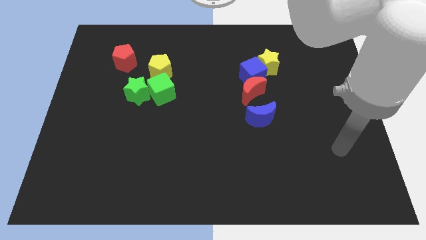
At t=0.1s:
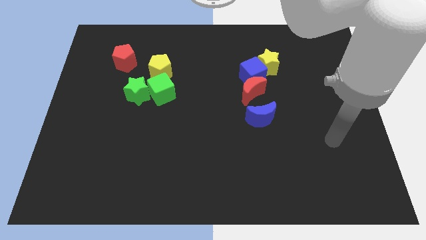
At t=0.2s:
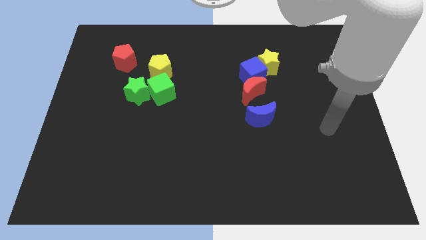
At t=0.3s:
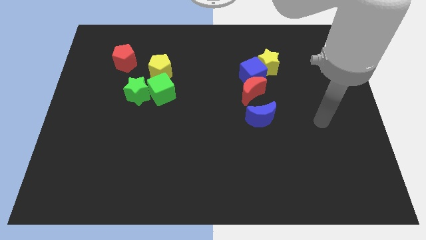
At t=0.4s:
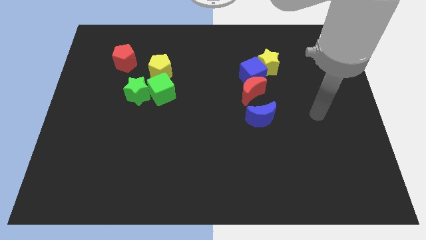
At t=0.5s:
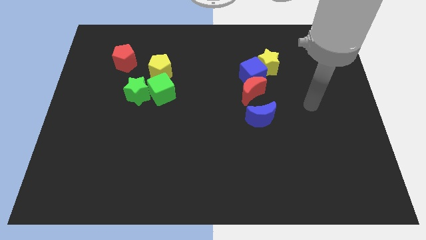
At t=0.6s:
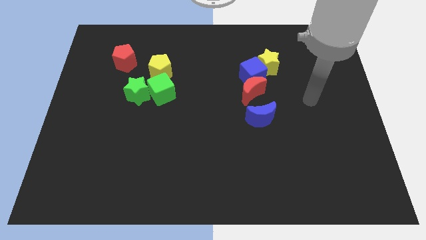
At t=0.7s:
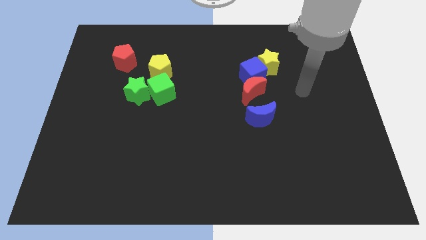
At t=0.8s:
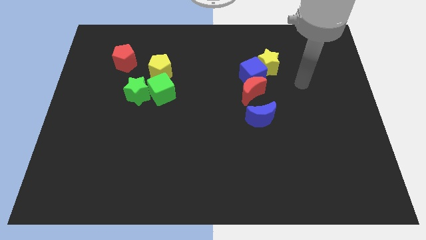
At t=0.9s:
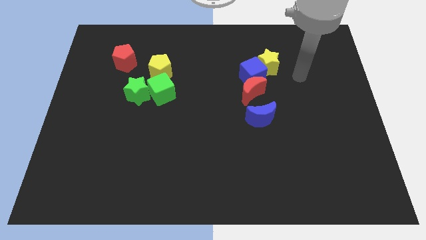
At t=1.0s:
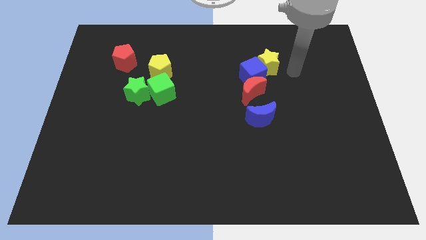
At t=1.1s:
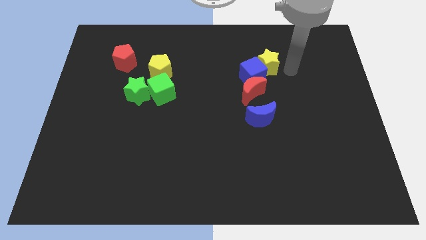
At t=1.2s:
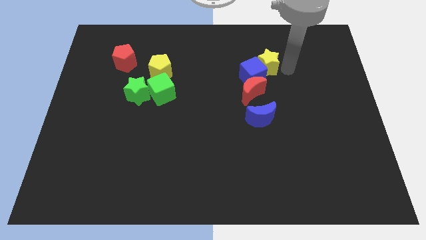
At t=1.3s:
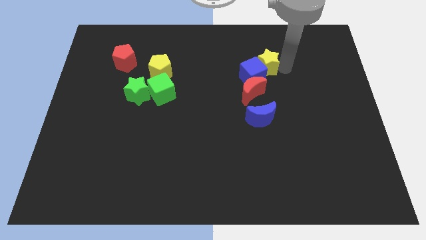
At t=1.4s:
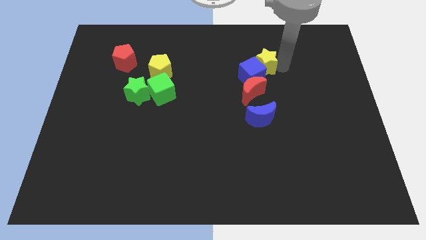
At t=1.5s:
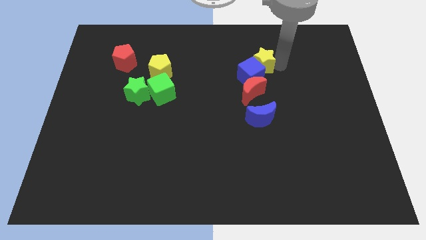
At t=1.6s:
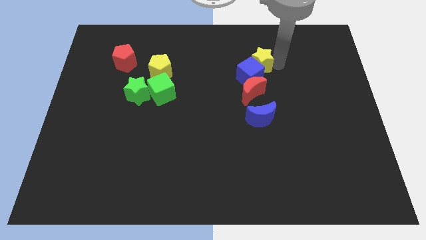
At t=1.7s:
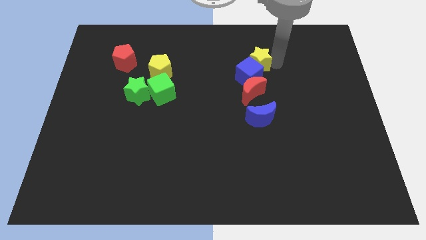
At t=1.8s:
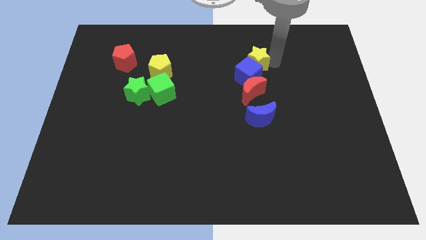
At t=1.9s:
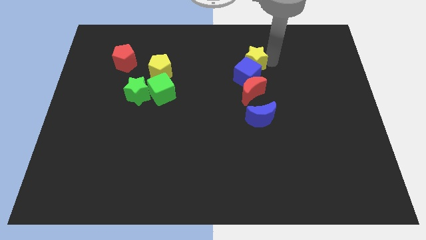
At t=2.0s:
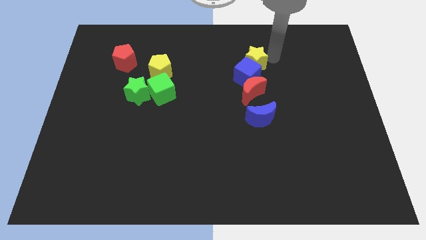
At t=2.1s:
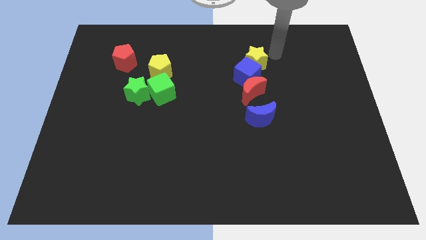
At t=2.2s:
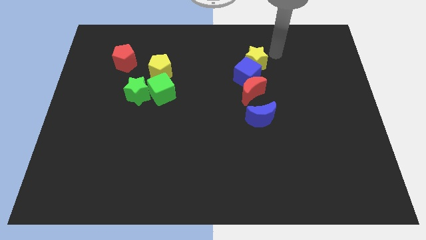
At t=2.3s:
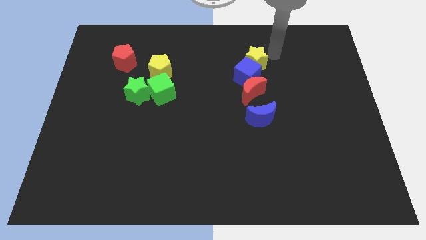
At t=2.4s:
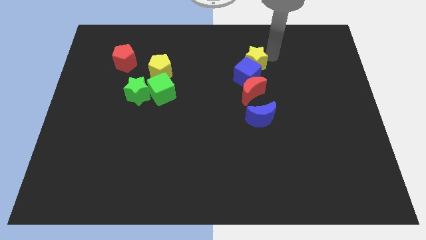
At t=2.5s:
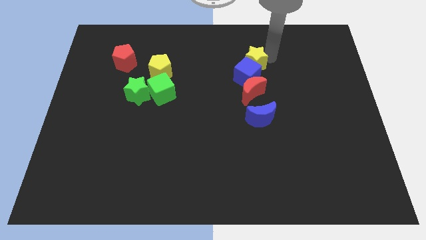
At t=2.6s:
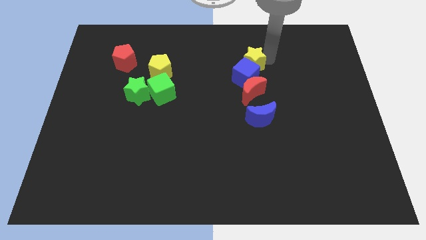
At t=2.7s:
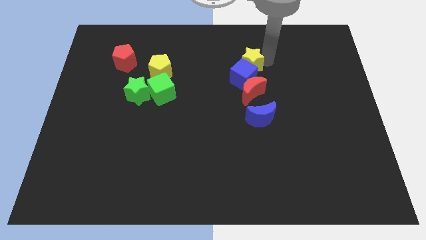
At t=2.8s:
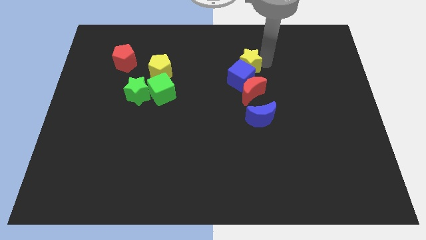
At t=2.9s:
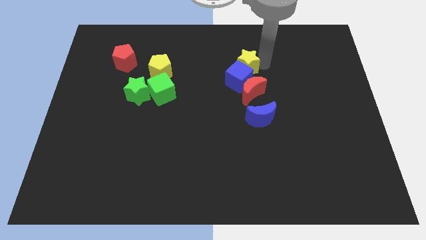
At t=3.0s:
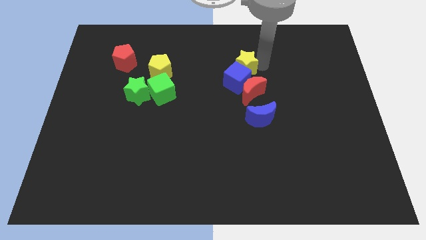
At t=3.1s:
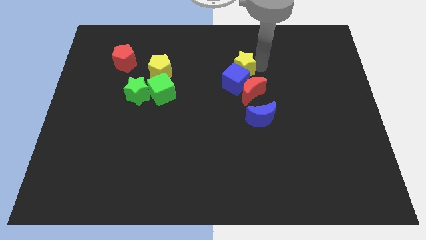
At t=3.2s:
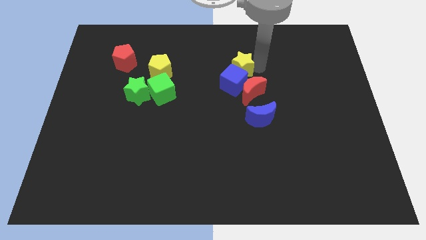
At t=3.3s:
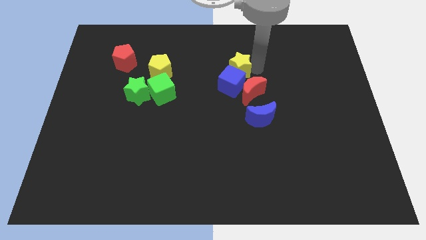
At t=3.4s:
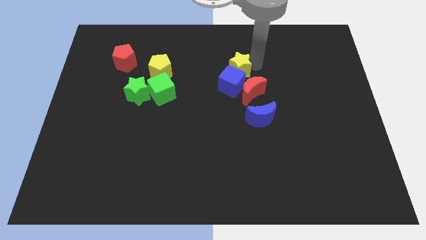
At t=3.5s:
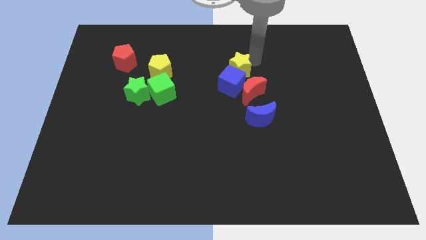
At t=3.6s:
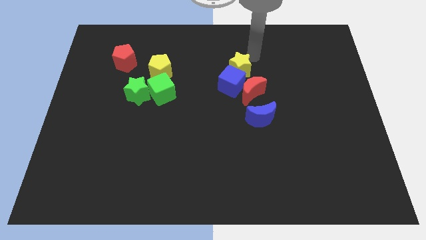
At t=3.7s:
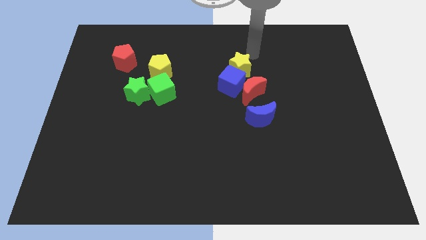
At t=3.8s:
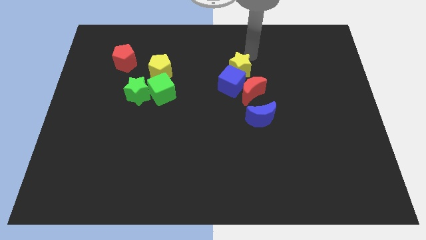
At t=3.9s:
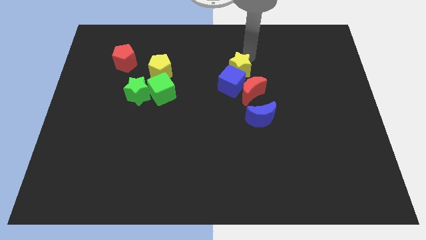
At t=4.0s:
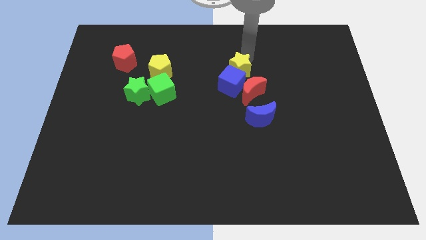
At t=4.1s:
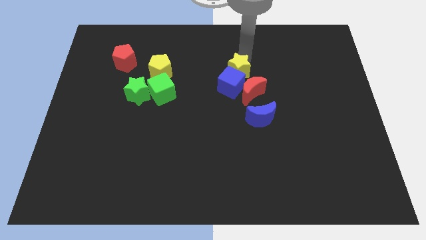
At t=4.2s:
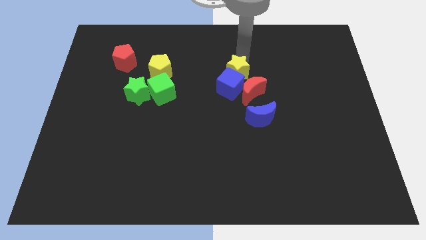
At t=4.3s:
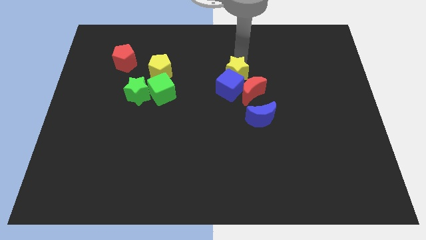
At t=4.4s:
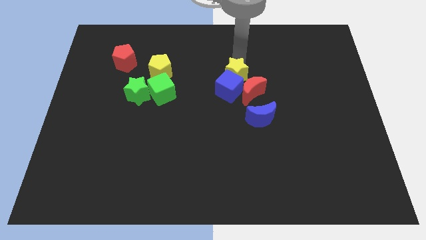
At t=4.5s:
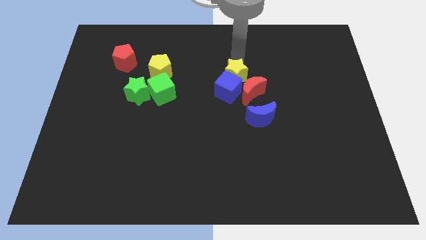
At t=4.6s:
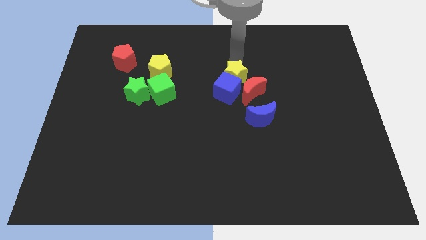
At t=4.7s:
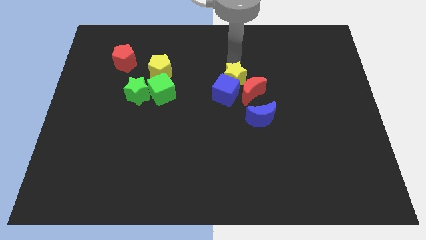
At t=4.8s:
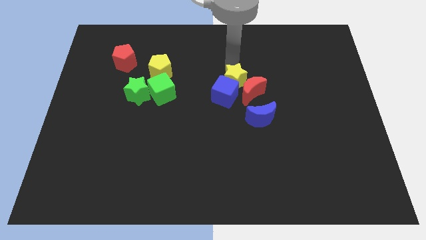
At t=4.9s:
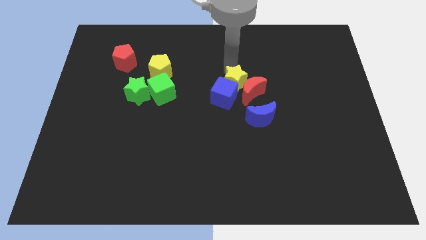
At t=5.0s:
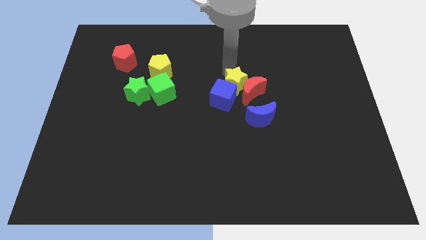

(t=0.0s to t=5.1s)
push the yellow star diagonally up and to the left of the blue moon

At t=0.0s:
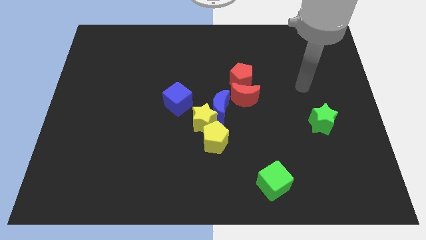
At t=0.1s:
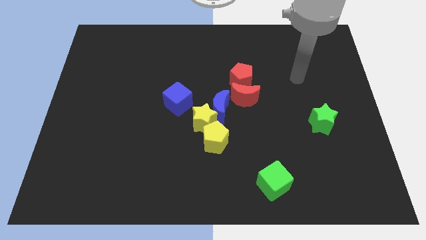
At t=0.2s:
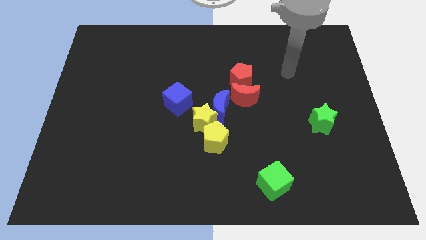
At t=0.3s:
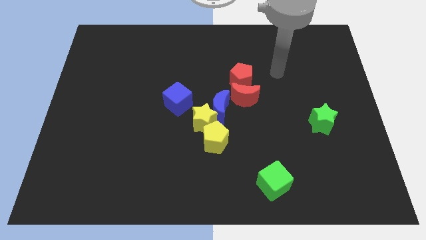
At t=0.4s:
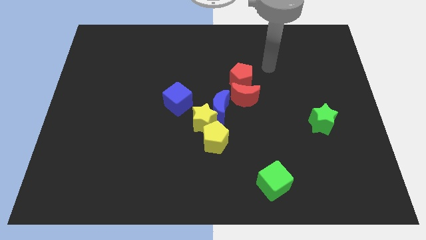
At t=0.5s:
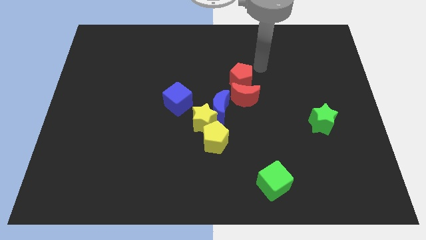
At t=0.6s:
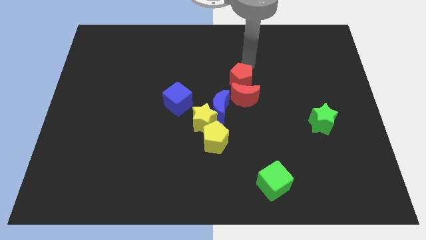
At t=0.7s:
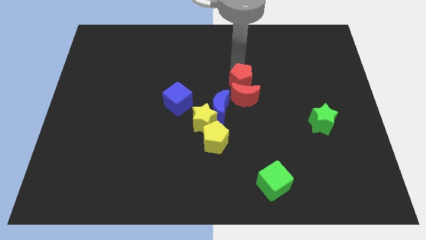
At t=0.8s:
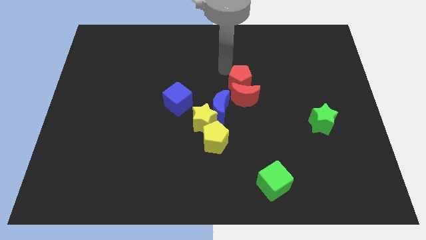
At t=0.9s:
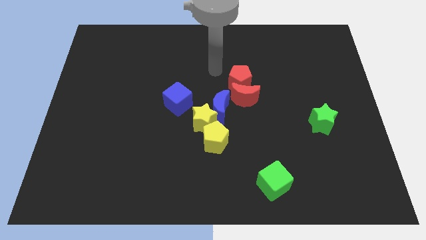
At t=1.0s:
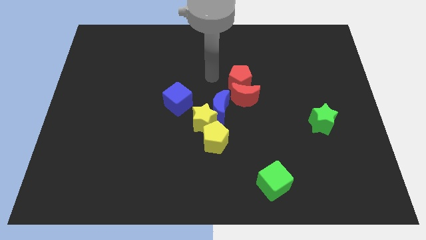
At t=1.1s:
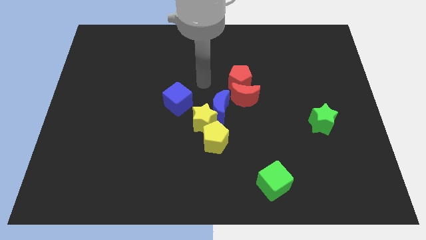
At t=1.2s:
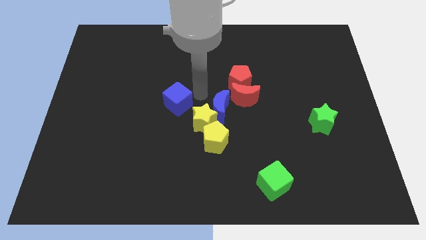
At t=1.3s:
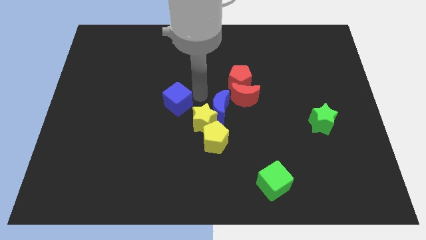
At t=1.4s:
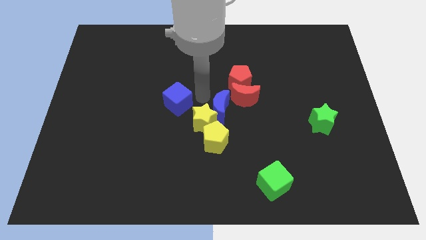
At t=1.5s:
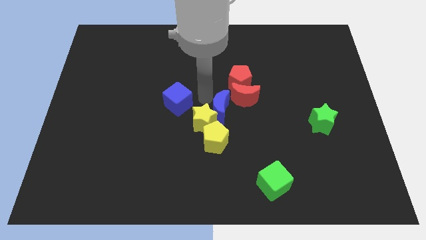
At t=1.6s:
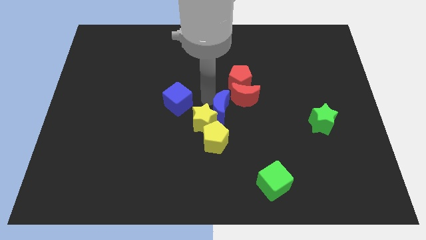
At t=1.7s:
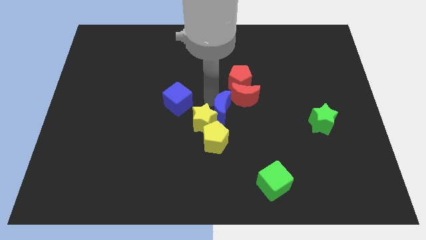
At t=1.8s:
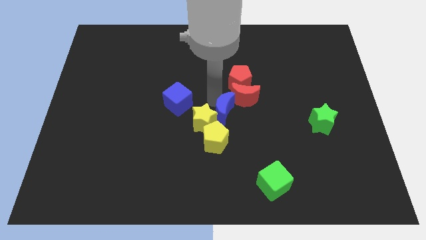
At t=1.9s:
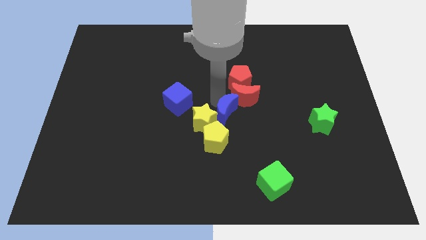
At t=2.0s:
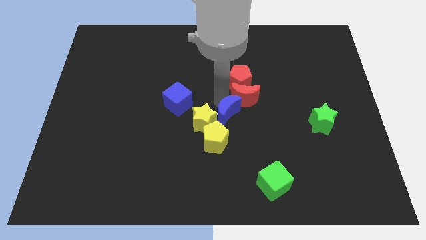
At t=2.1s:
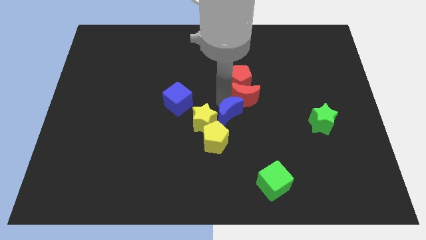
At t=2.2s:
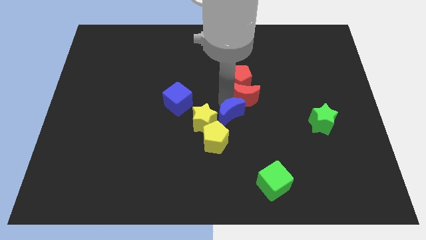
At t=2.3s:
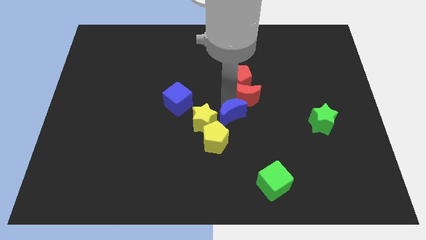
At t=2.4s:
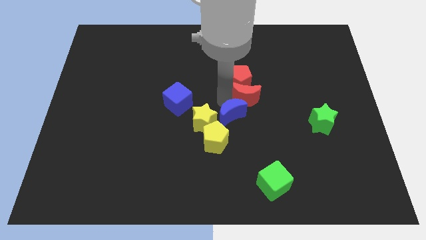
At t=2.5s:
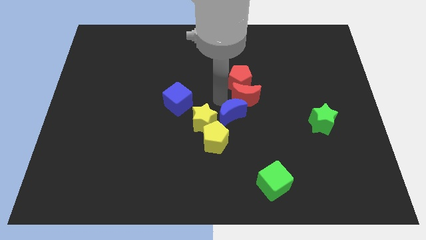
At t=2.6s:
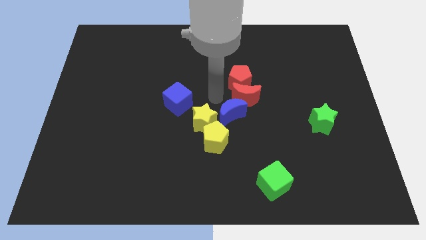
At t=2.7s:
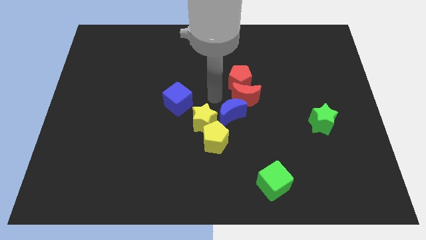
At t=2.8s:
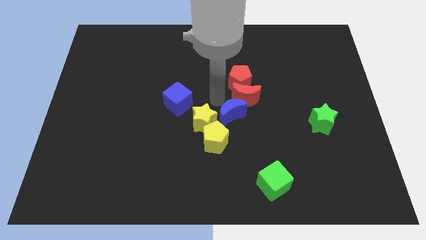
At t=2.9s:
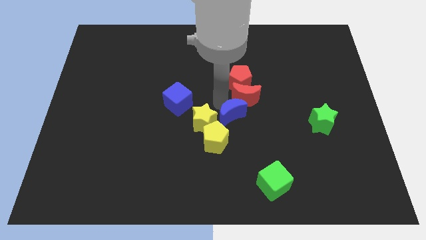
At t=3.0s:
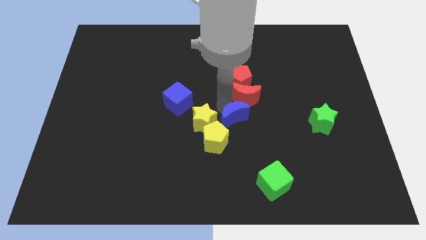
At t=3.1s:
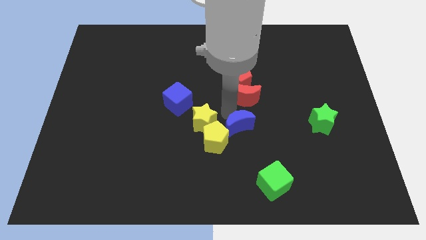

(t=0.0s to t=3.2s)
slide the blue moon right of the yellow pentagon
